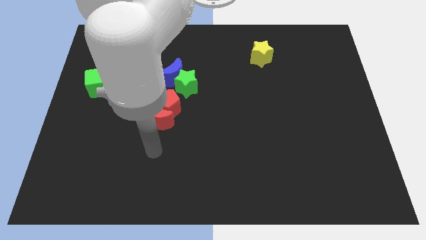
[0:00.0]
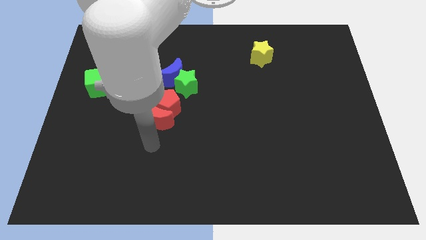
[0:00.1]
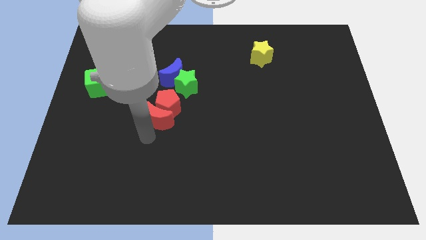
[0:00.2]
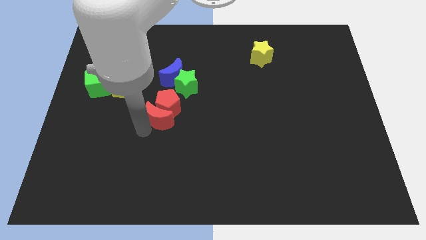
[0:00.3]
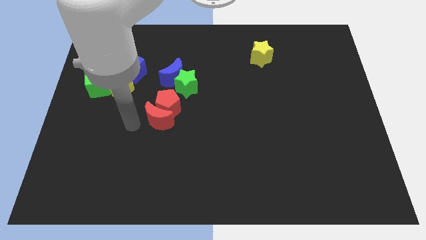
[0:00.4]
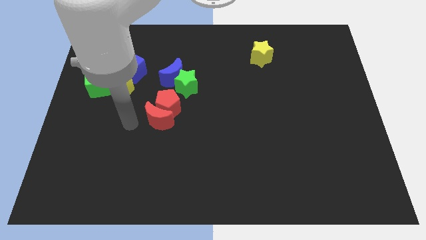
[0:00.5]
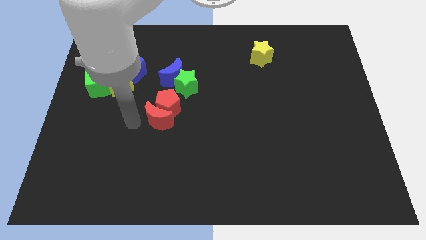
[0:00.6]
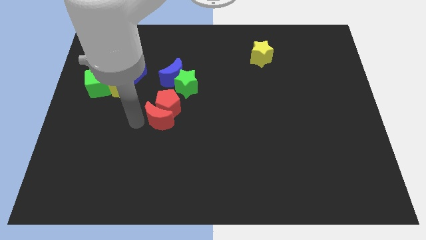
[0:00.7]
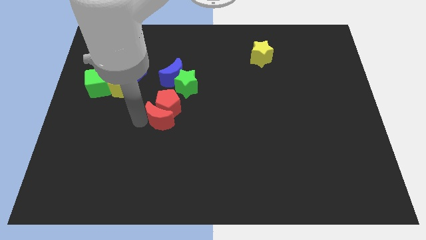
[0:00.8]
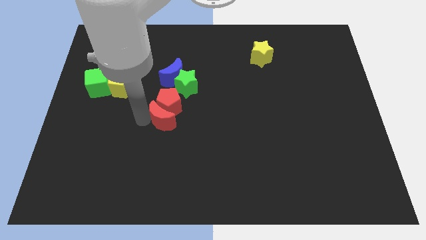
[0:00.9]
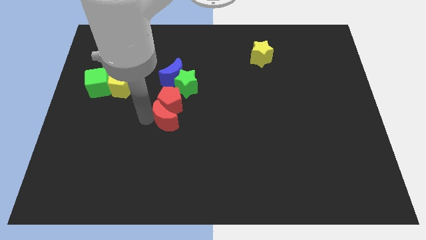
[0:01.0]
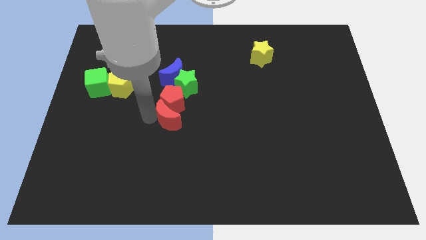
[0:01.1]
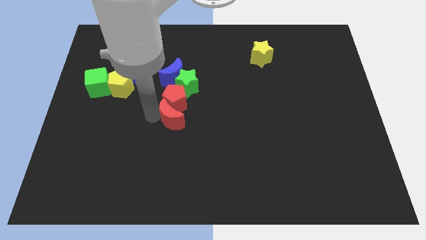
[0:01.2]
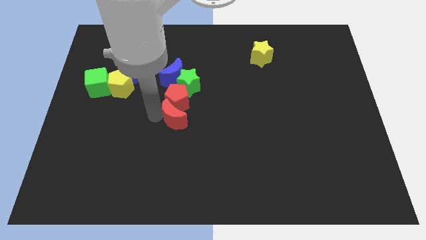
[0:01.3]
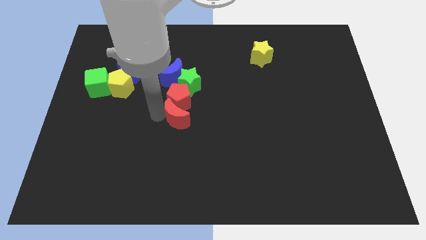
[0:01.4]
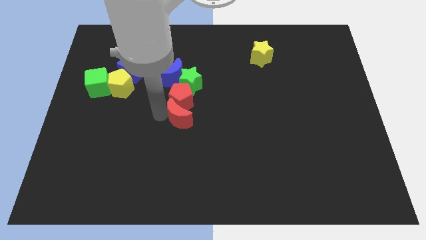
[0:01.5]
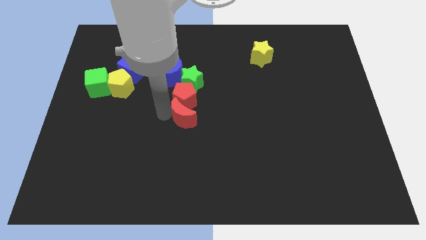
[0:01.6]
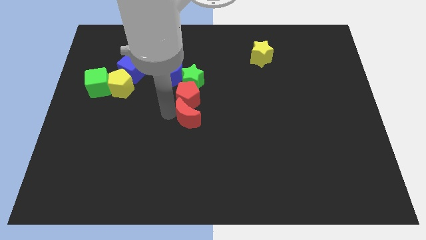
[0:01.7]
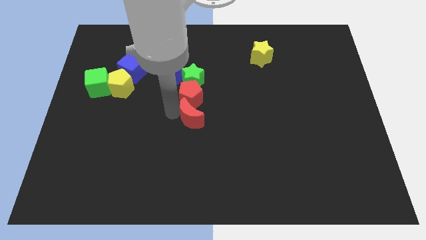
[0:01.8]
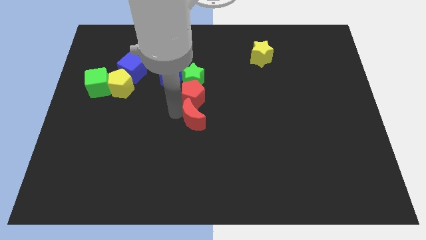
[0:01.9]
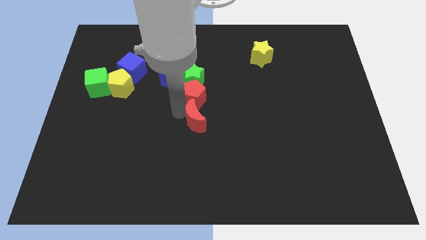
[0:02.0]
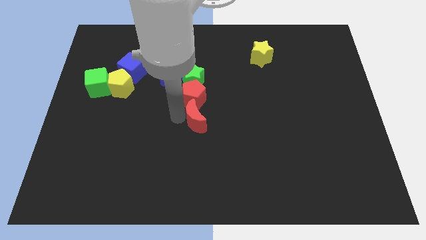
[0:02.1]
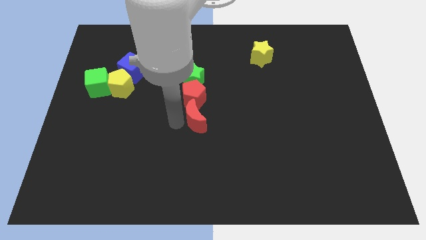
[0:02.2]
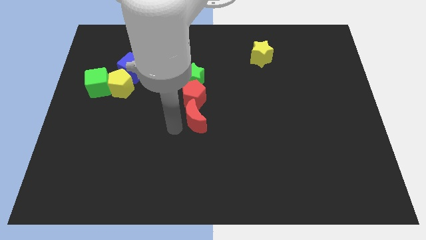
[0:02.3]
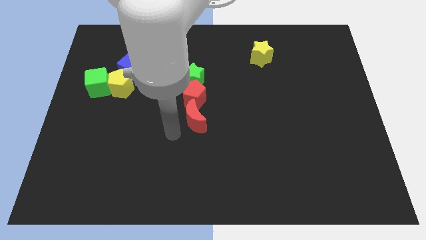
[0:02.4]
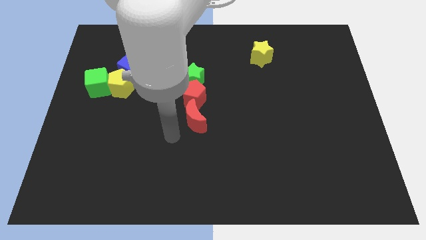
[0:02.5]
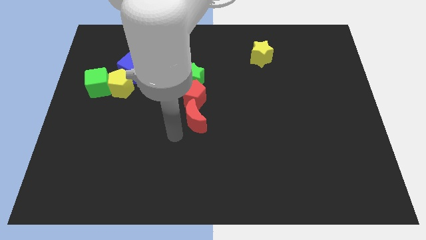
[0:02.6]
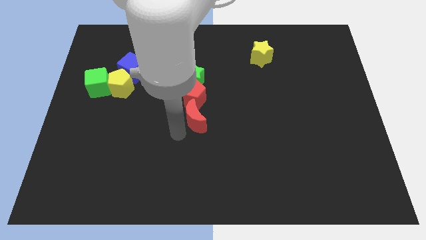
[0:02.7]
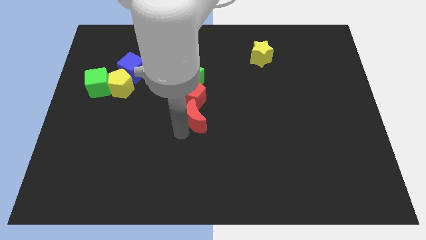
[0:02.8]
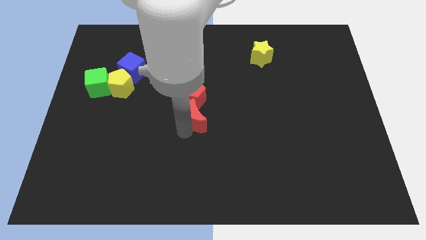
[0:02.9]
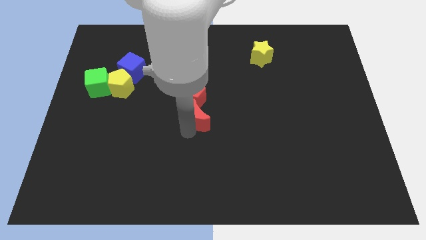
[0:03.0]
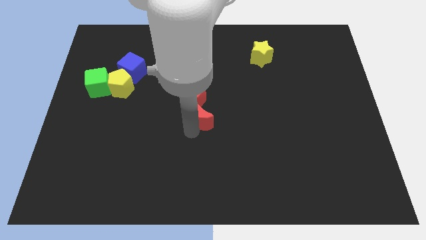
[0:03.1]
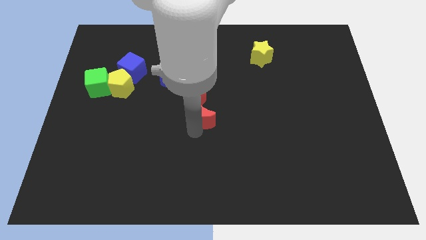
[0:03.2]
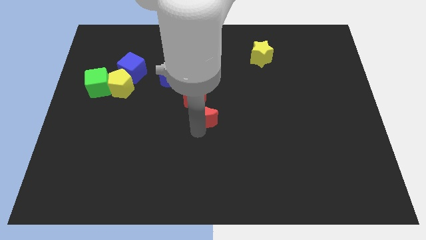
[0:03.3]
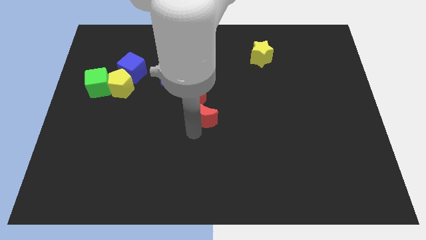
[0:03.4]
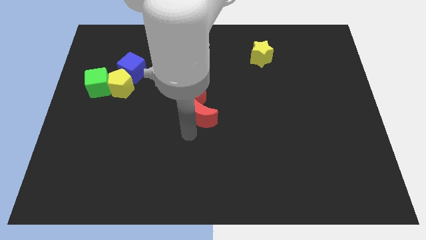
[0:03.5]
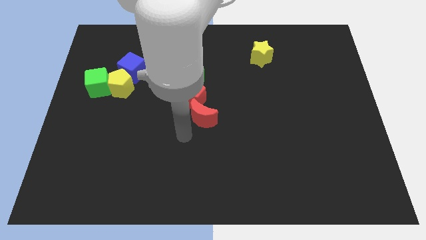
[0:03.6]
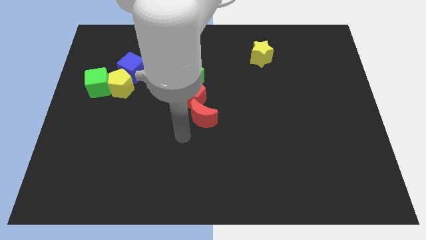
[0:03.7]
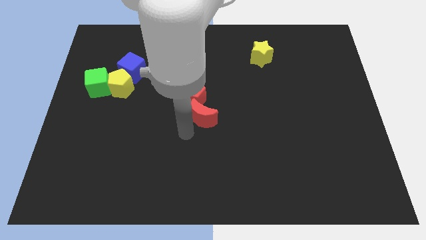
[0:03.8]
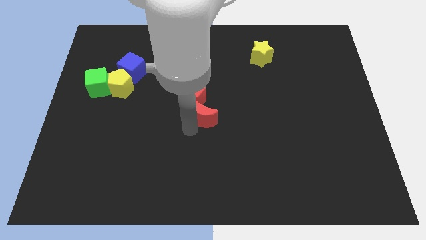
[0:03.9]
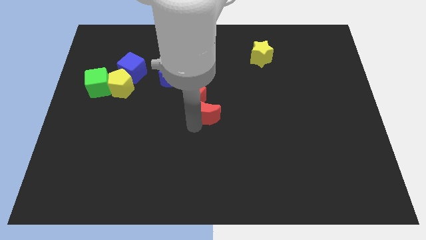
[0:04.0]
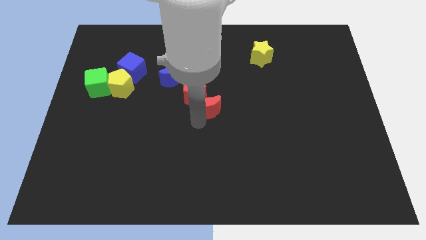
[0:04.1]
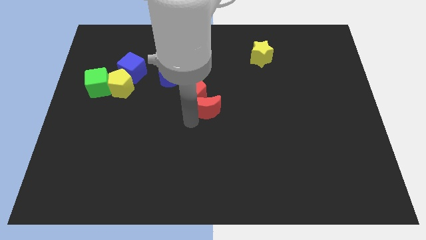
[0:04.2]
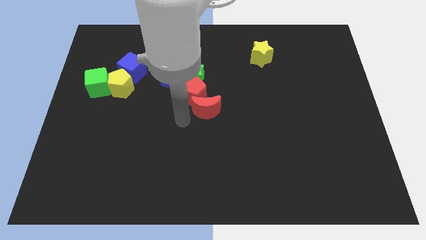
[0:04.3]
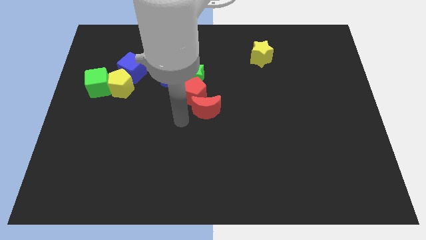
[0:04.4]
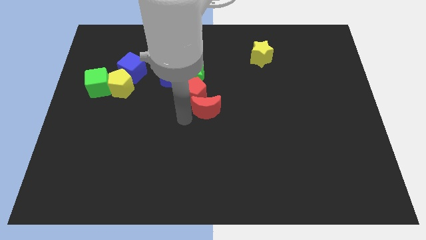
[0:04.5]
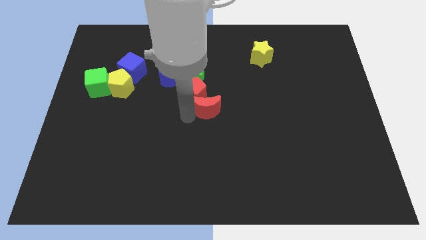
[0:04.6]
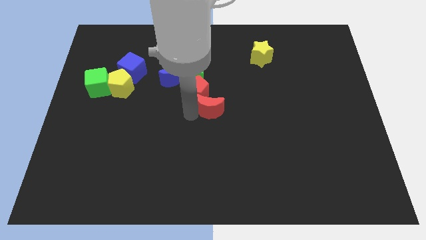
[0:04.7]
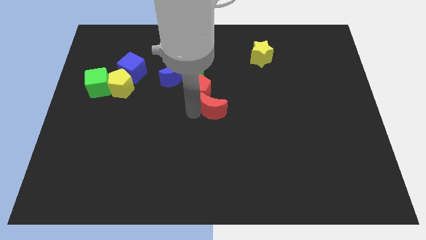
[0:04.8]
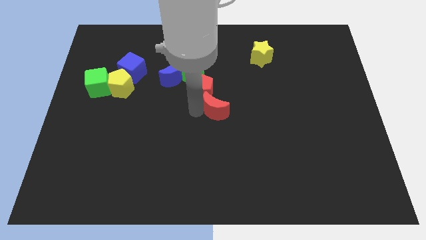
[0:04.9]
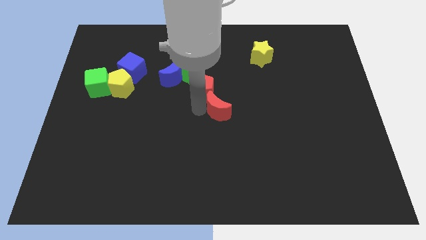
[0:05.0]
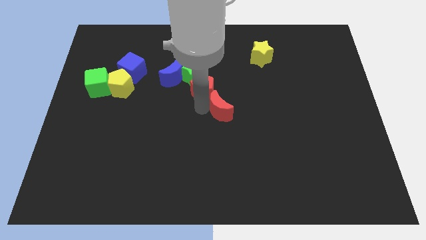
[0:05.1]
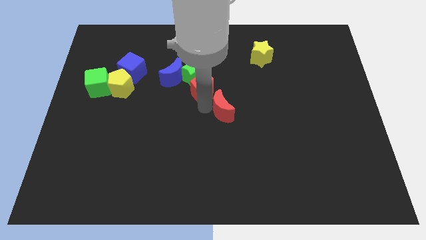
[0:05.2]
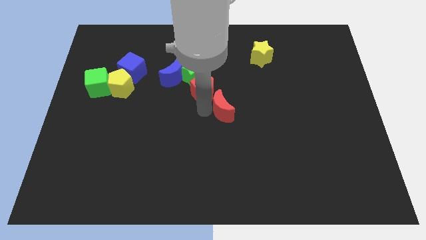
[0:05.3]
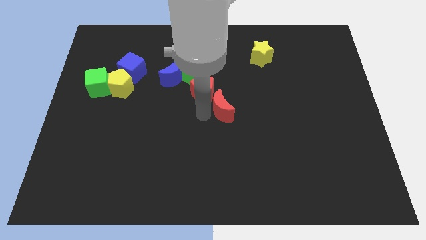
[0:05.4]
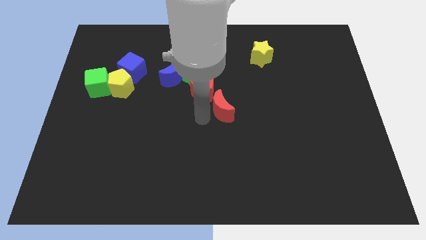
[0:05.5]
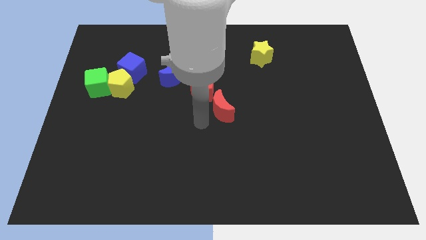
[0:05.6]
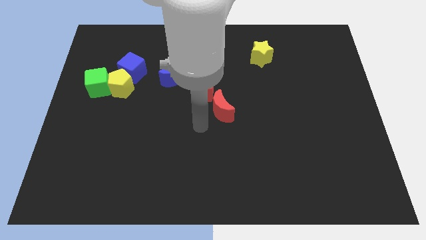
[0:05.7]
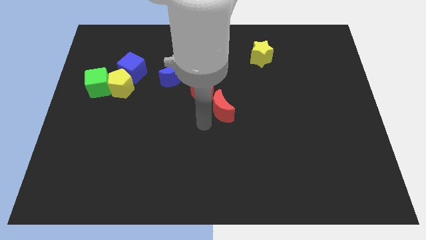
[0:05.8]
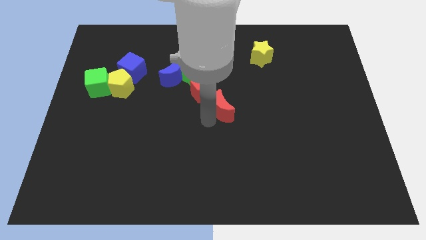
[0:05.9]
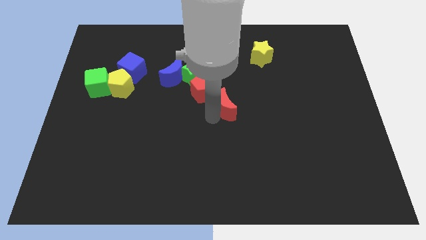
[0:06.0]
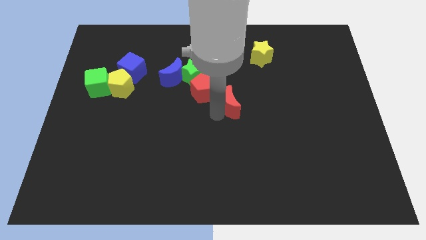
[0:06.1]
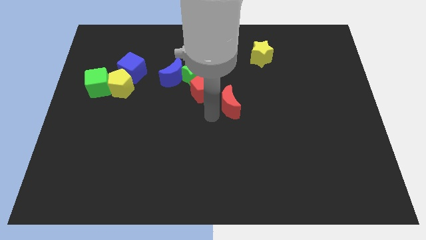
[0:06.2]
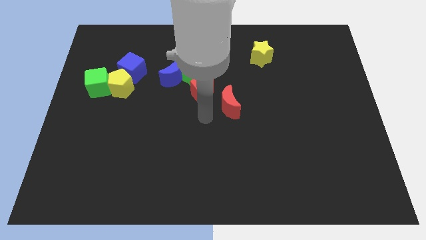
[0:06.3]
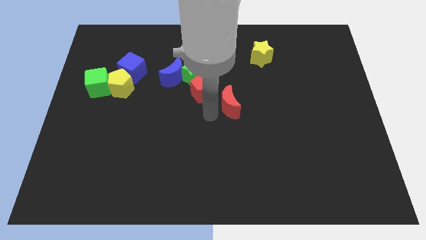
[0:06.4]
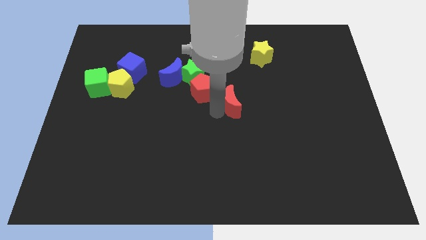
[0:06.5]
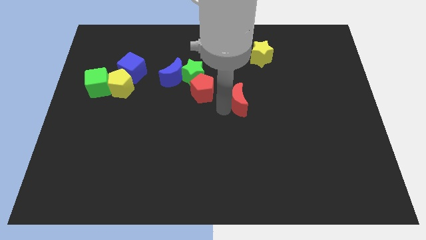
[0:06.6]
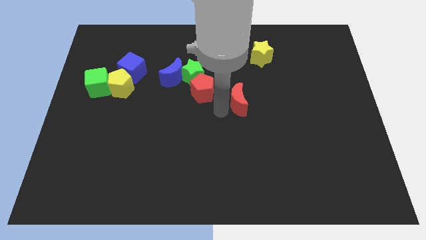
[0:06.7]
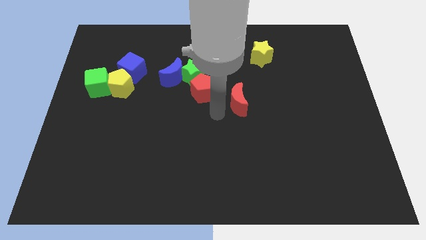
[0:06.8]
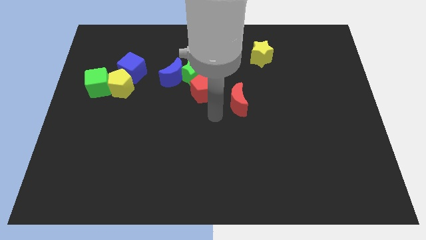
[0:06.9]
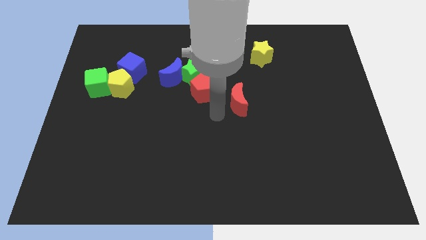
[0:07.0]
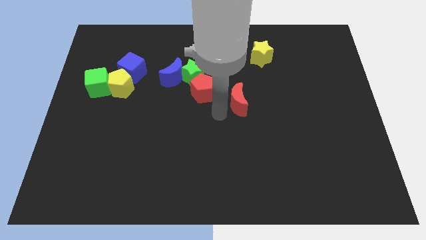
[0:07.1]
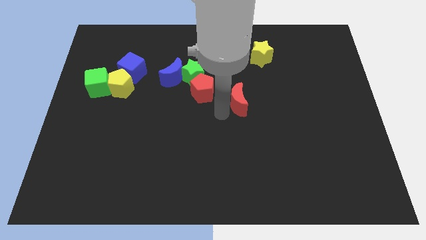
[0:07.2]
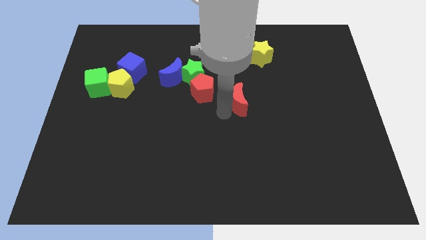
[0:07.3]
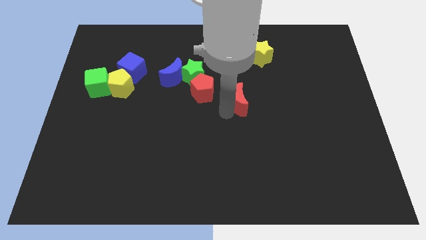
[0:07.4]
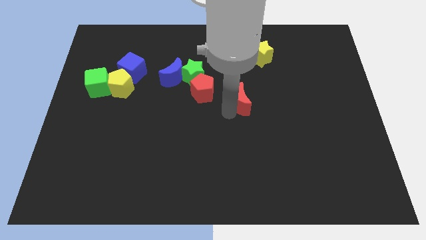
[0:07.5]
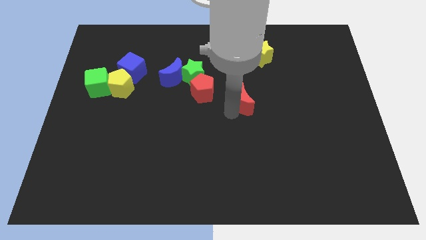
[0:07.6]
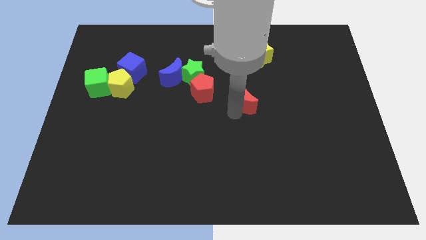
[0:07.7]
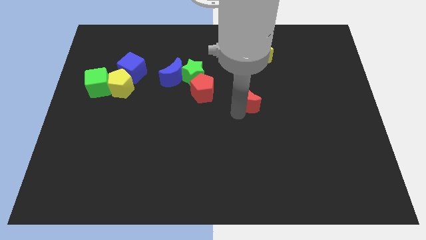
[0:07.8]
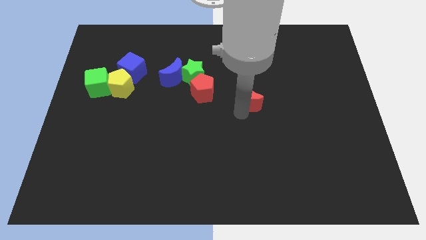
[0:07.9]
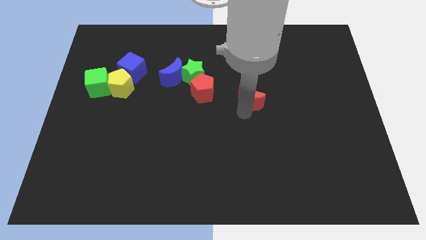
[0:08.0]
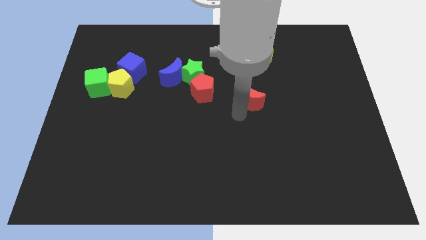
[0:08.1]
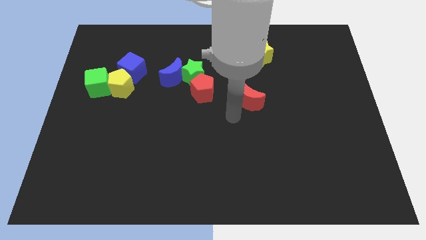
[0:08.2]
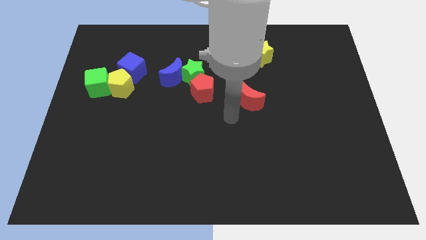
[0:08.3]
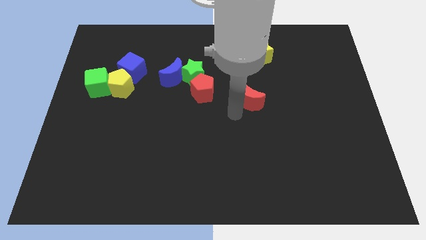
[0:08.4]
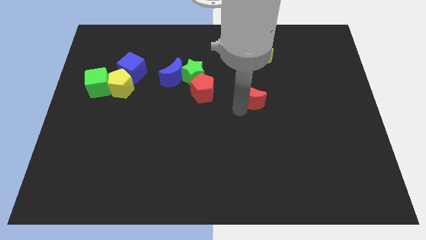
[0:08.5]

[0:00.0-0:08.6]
move the red moon below the yellow star
